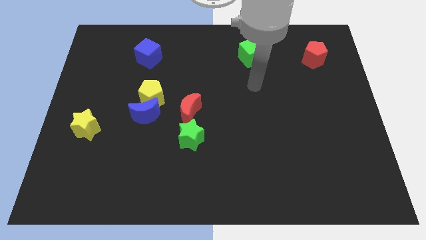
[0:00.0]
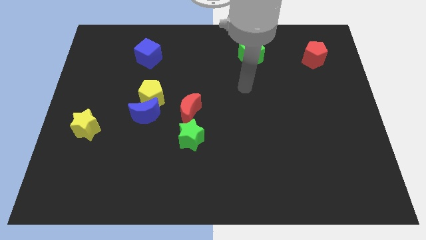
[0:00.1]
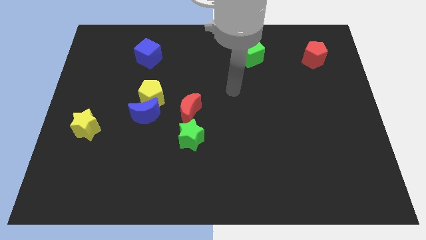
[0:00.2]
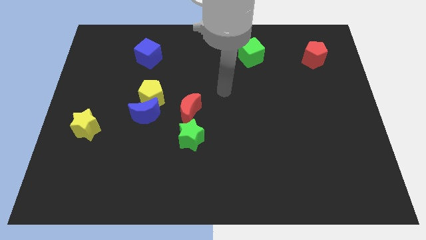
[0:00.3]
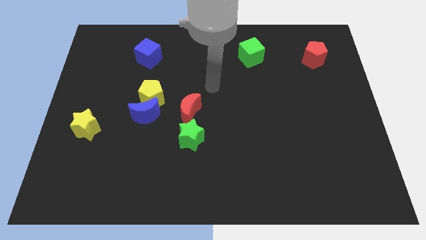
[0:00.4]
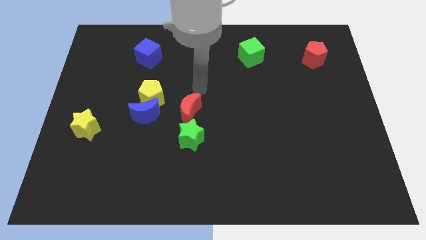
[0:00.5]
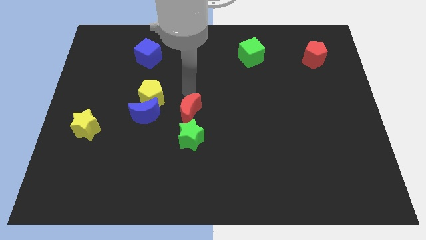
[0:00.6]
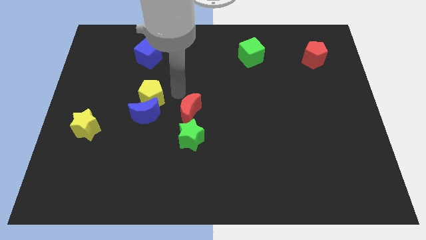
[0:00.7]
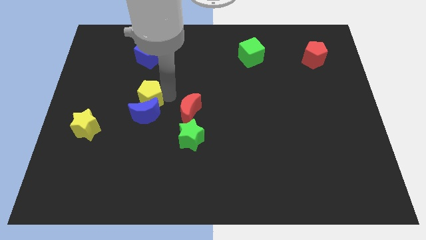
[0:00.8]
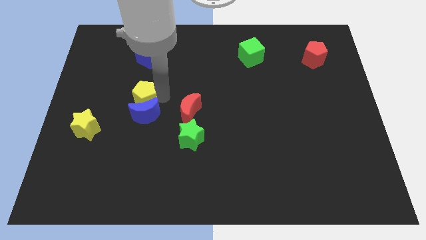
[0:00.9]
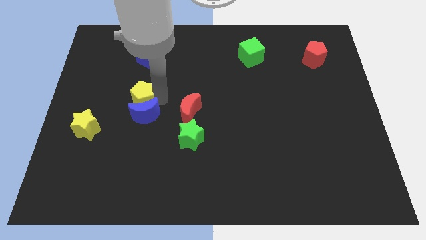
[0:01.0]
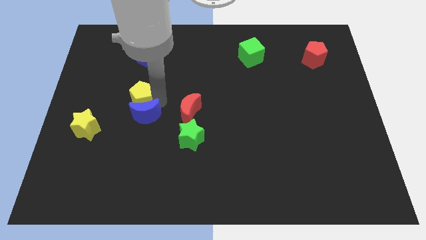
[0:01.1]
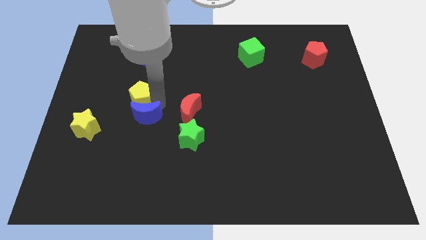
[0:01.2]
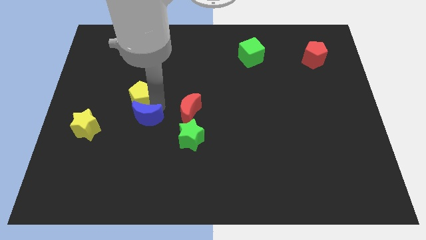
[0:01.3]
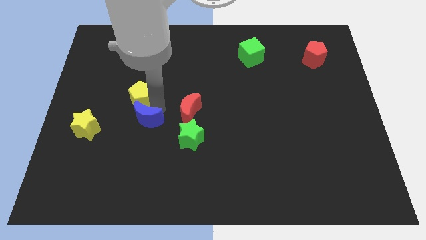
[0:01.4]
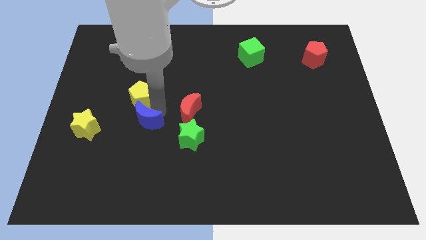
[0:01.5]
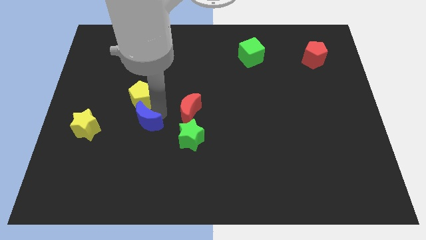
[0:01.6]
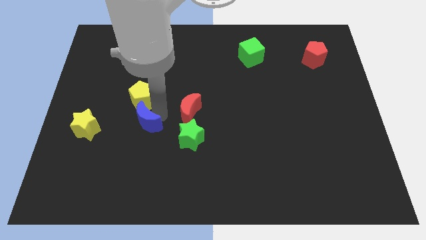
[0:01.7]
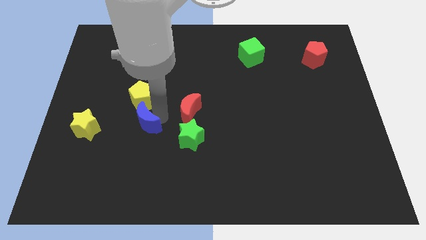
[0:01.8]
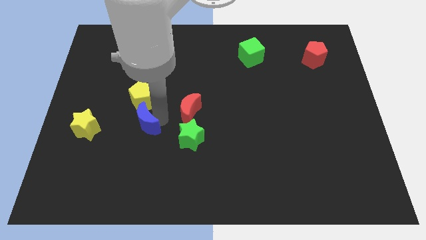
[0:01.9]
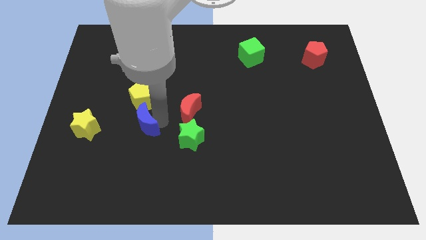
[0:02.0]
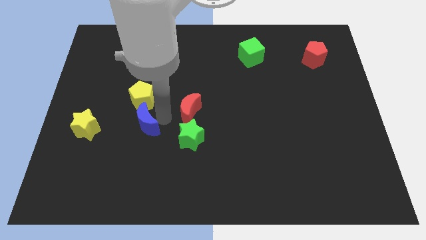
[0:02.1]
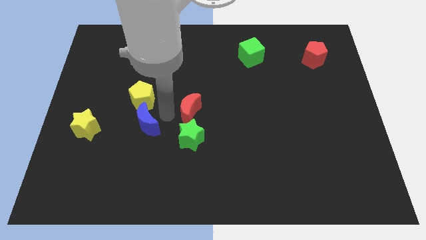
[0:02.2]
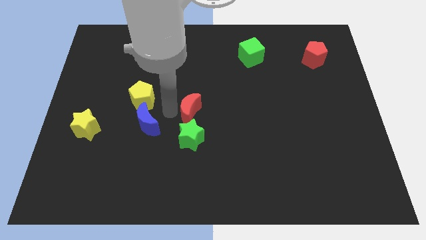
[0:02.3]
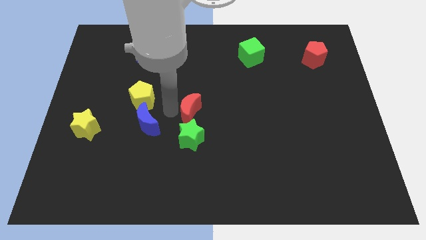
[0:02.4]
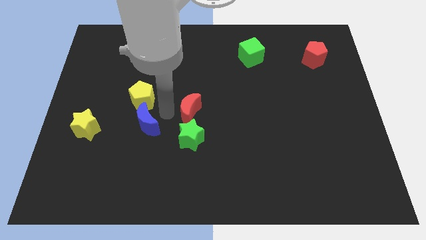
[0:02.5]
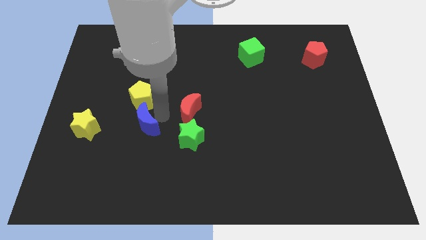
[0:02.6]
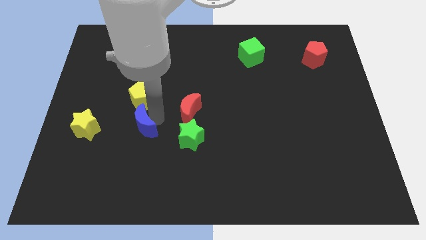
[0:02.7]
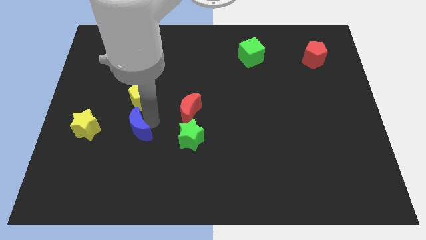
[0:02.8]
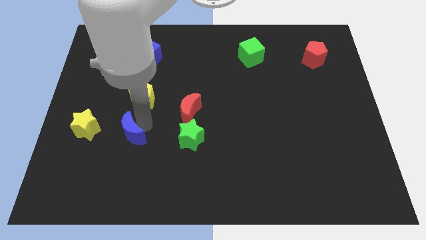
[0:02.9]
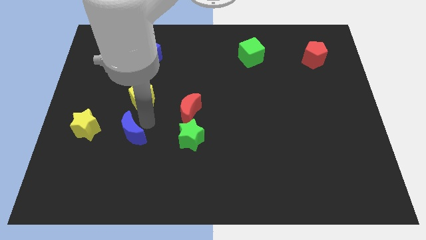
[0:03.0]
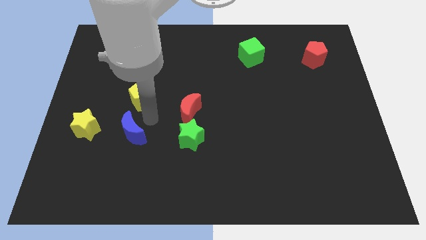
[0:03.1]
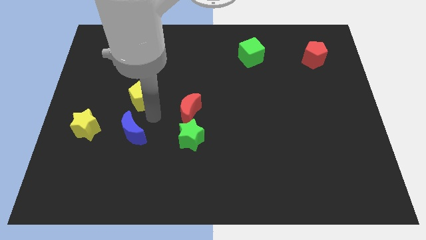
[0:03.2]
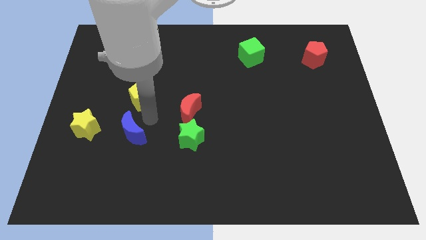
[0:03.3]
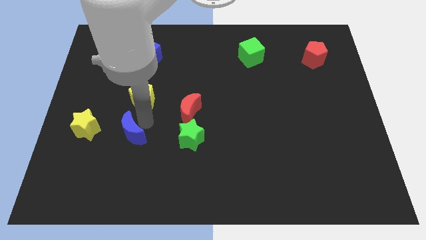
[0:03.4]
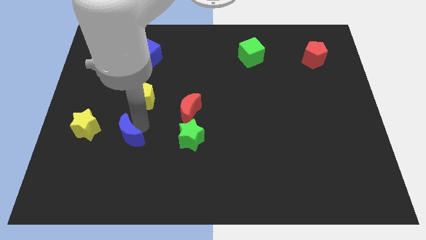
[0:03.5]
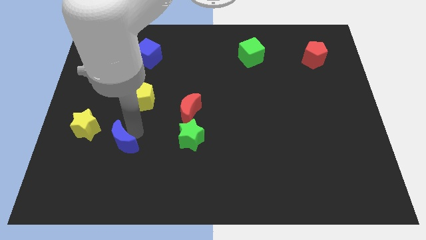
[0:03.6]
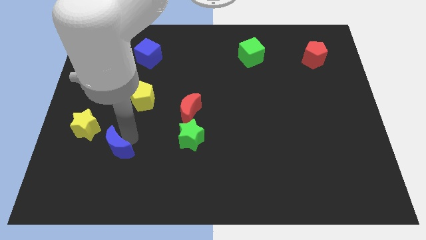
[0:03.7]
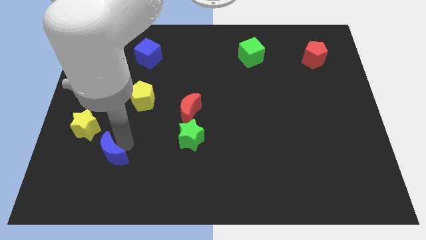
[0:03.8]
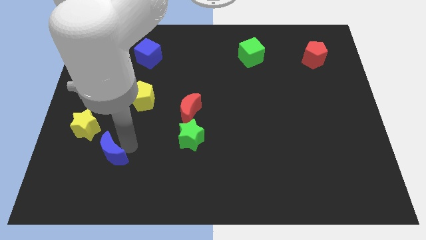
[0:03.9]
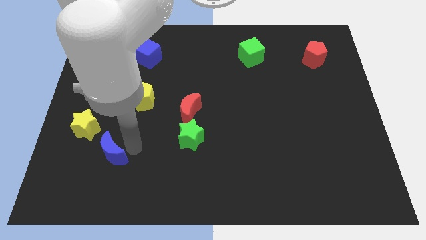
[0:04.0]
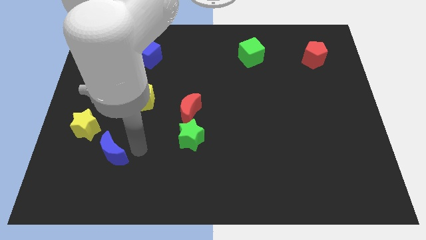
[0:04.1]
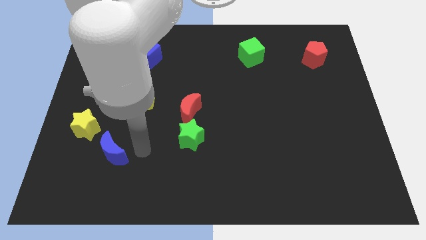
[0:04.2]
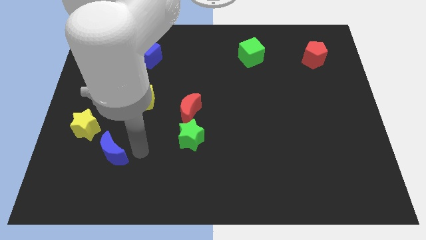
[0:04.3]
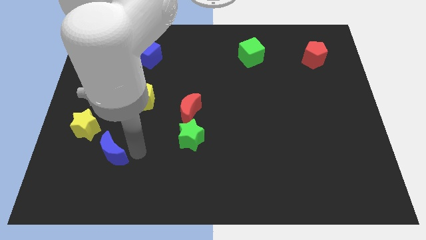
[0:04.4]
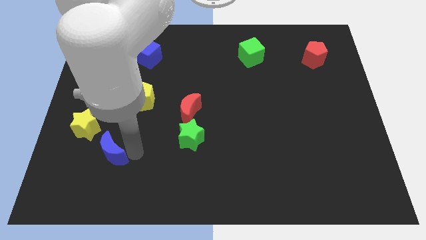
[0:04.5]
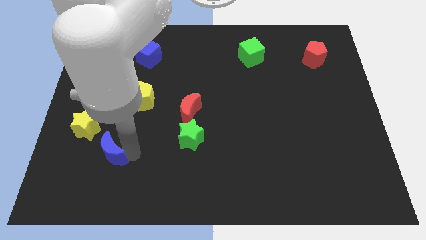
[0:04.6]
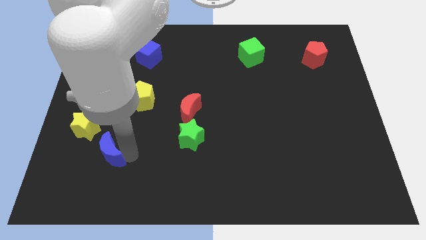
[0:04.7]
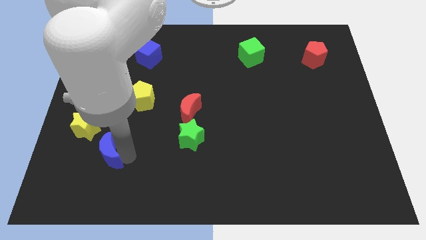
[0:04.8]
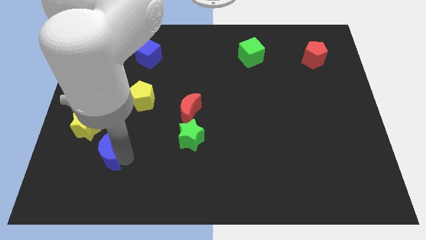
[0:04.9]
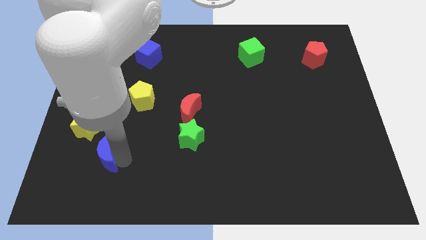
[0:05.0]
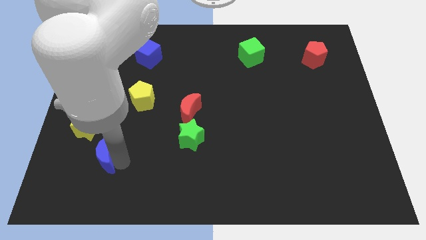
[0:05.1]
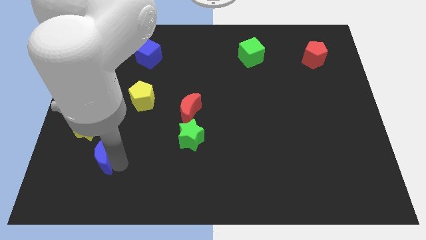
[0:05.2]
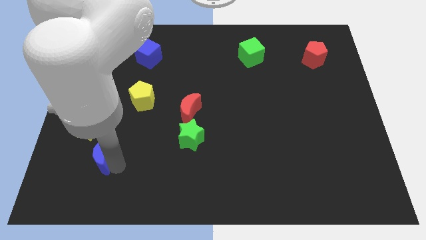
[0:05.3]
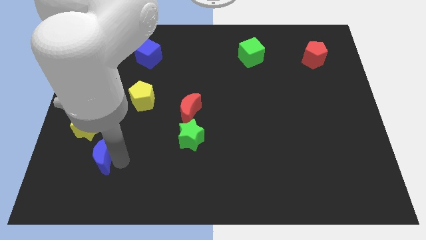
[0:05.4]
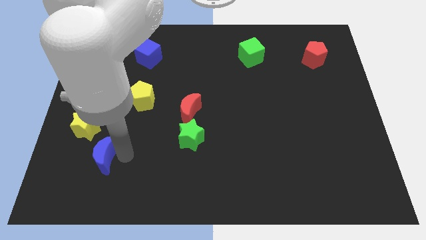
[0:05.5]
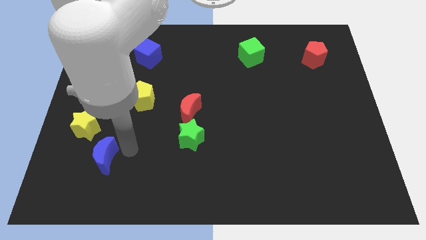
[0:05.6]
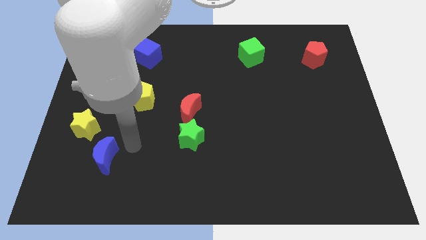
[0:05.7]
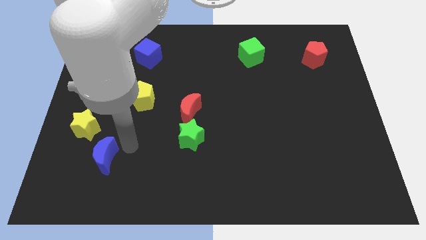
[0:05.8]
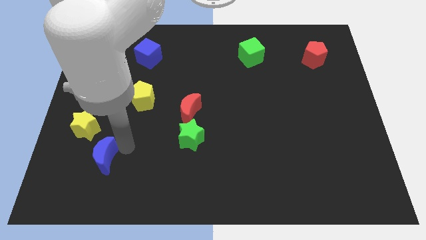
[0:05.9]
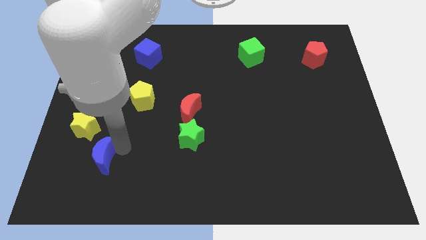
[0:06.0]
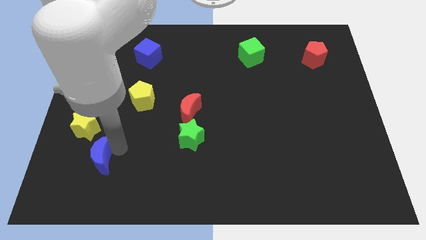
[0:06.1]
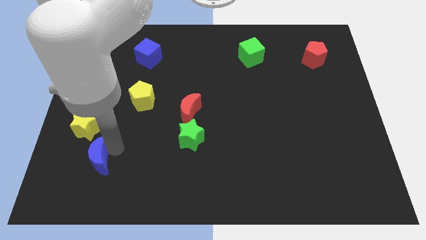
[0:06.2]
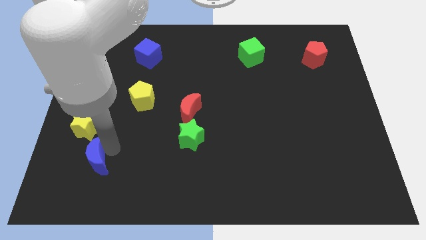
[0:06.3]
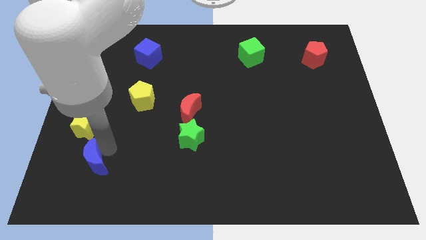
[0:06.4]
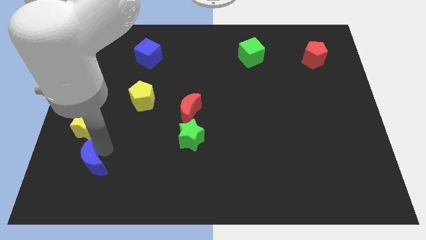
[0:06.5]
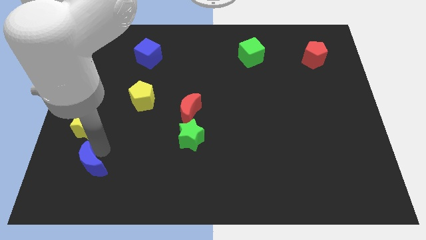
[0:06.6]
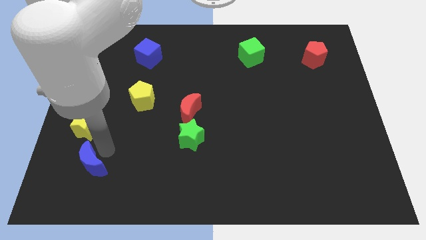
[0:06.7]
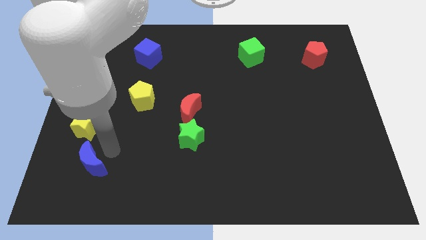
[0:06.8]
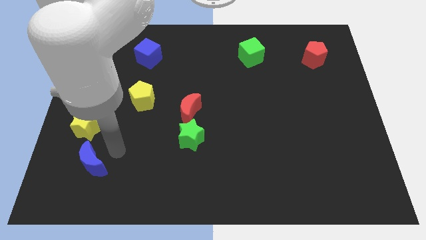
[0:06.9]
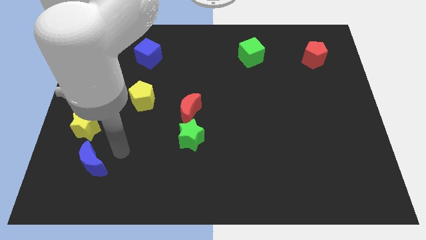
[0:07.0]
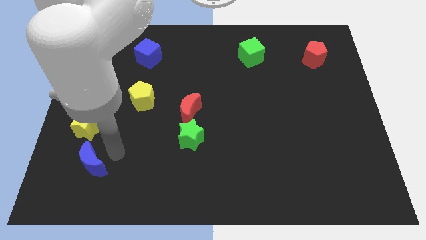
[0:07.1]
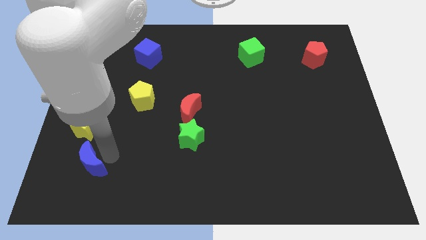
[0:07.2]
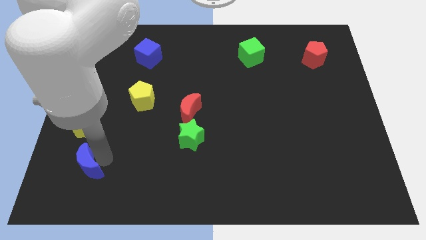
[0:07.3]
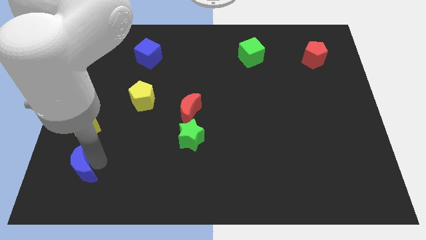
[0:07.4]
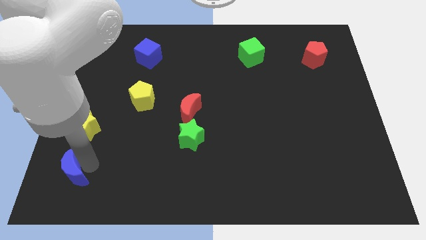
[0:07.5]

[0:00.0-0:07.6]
move the blue moon to the bottom left corner
